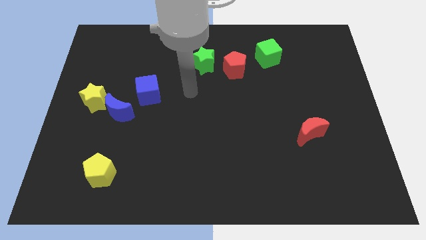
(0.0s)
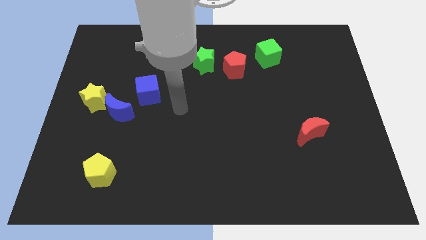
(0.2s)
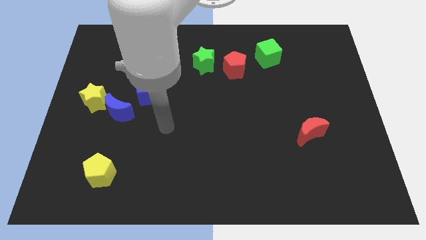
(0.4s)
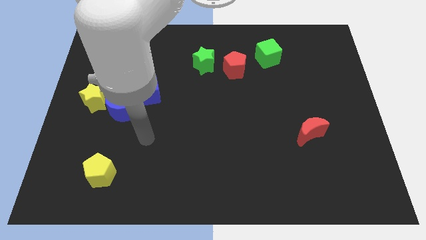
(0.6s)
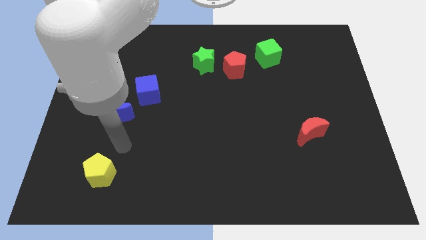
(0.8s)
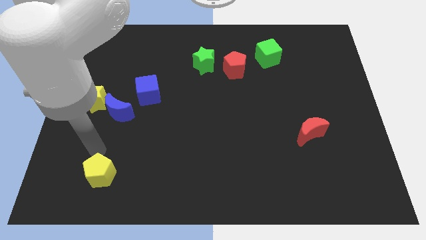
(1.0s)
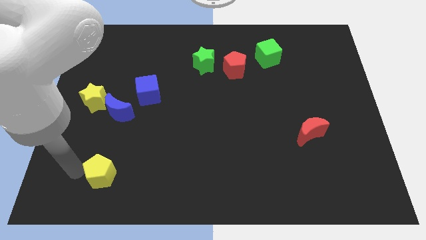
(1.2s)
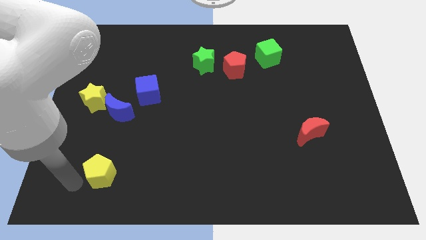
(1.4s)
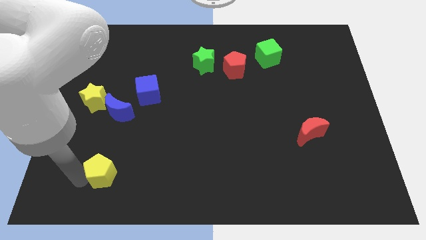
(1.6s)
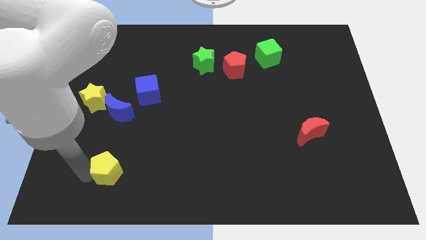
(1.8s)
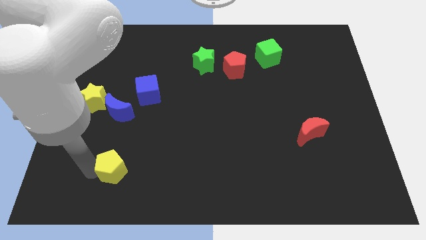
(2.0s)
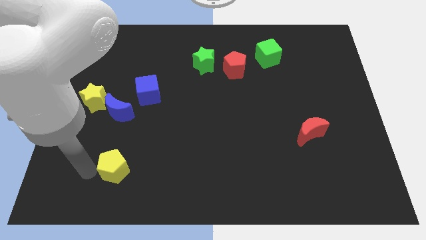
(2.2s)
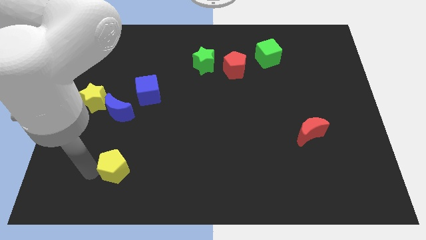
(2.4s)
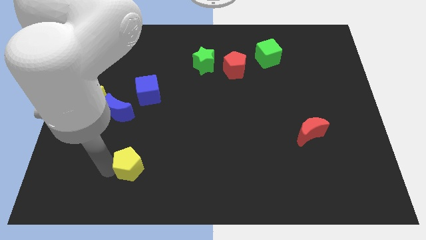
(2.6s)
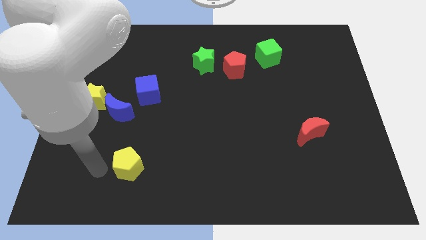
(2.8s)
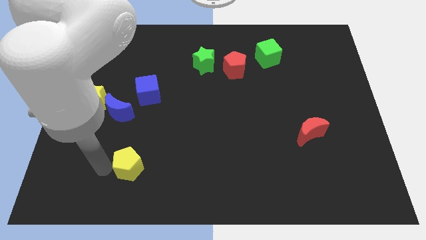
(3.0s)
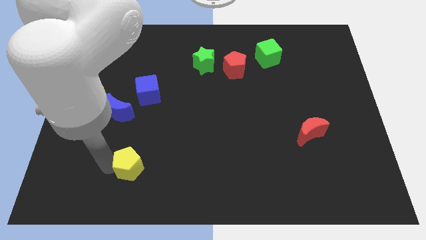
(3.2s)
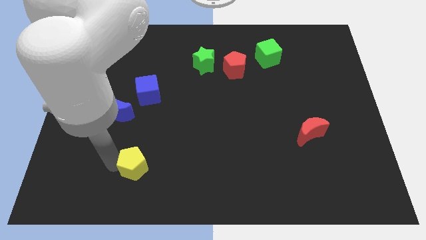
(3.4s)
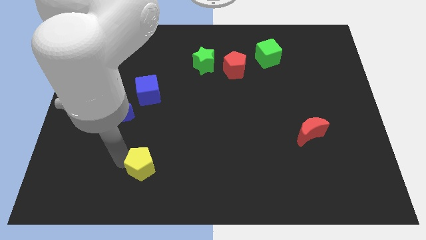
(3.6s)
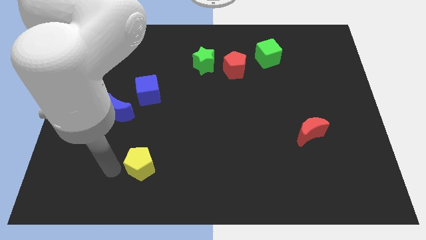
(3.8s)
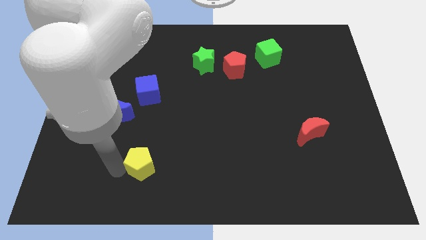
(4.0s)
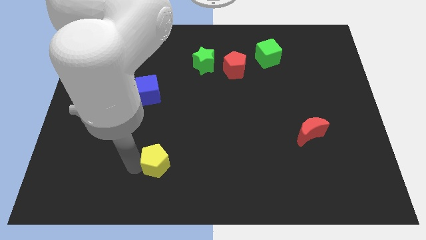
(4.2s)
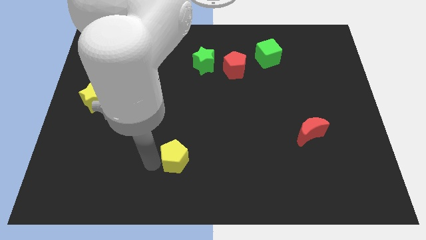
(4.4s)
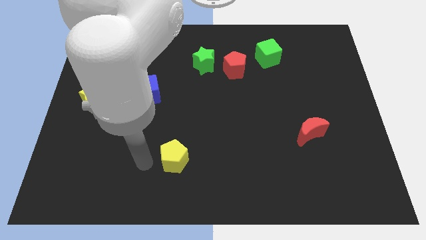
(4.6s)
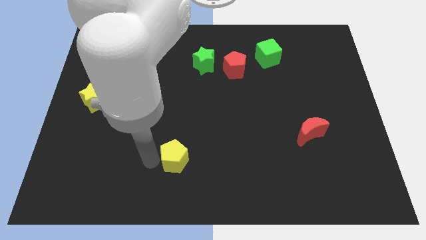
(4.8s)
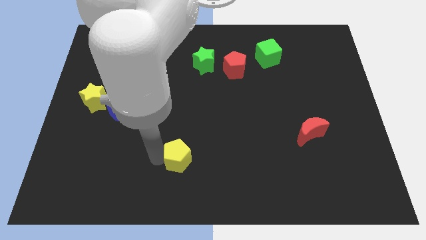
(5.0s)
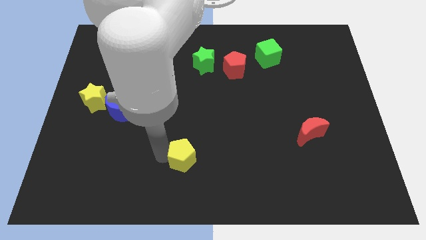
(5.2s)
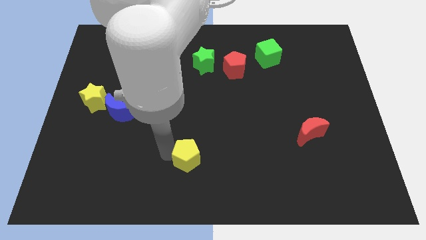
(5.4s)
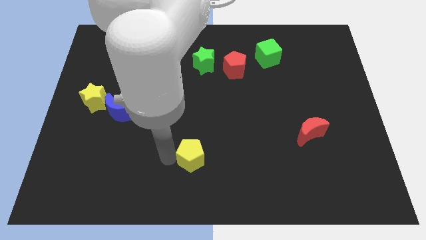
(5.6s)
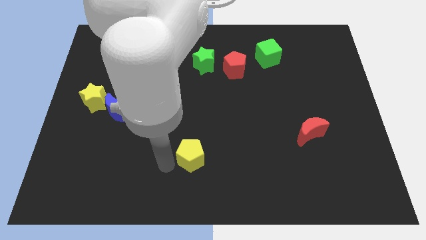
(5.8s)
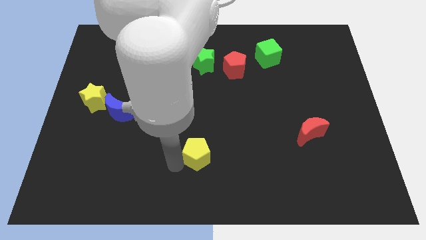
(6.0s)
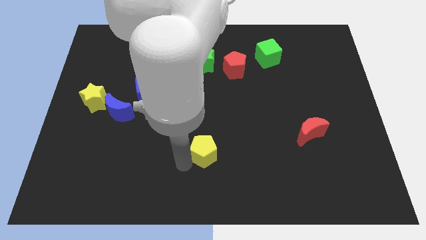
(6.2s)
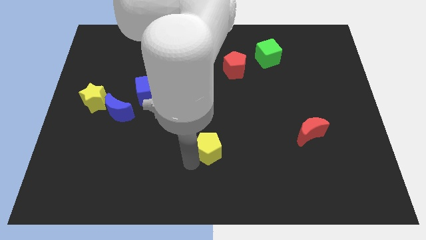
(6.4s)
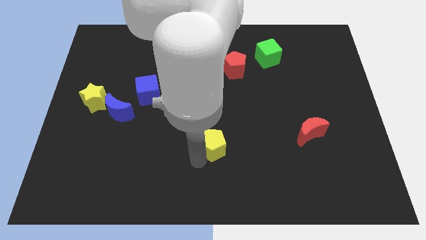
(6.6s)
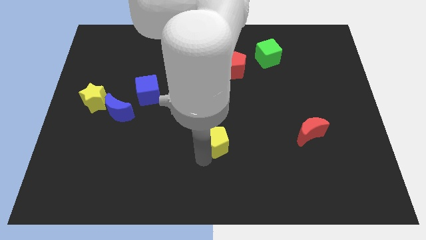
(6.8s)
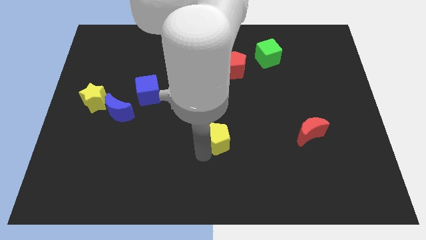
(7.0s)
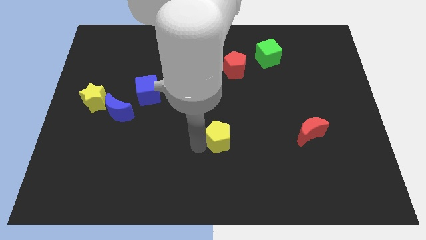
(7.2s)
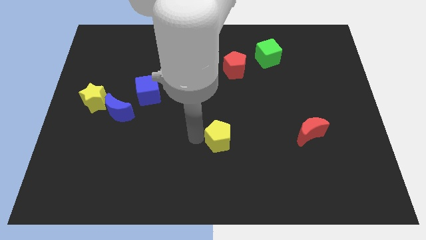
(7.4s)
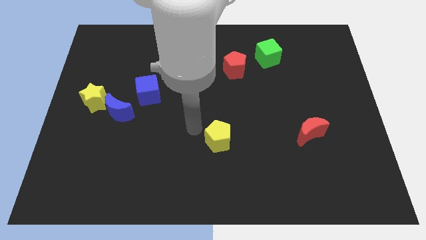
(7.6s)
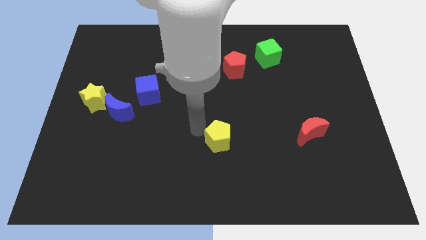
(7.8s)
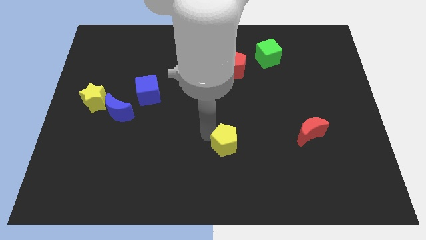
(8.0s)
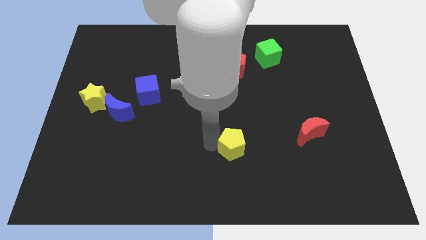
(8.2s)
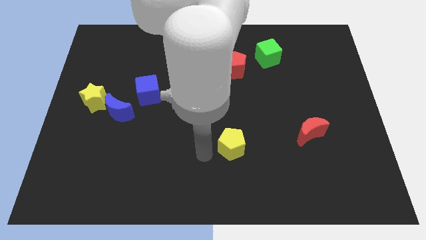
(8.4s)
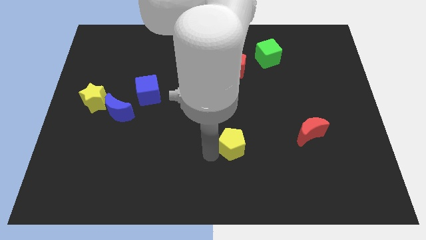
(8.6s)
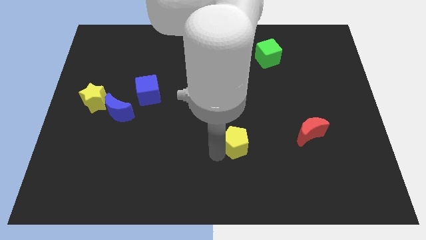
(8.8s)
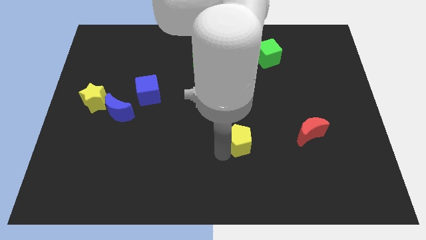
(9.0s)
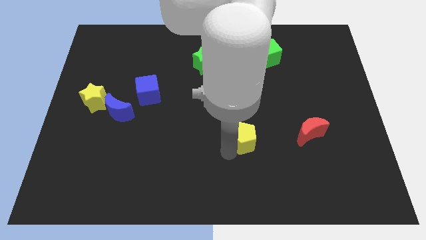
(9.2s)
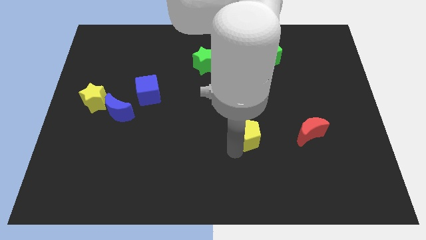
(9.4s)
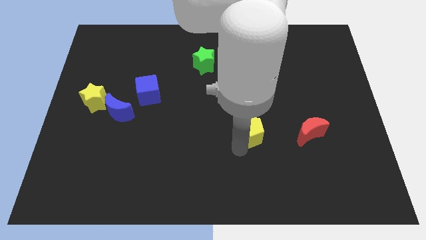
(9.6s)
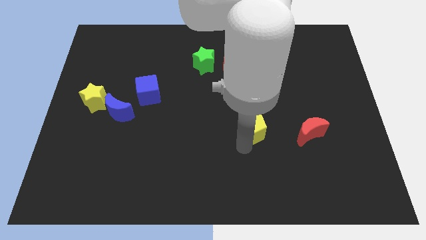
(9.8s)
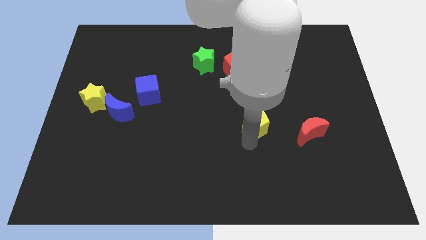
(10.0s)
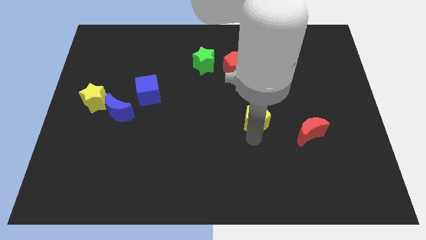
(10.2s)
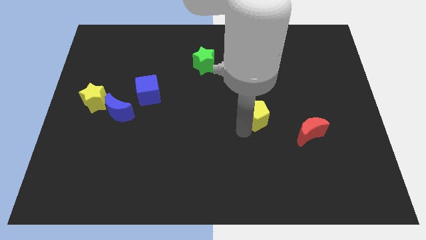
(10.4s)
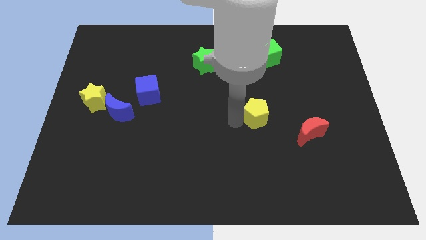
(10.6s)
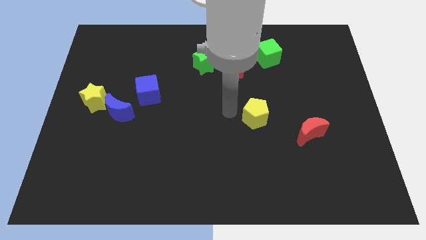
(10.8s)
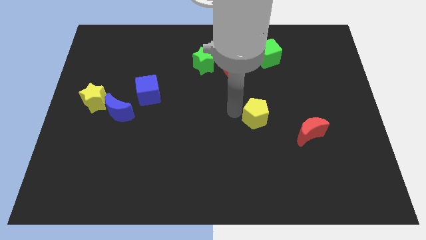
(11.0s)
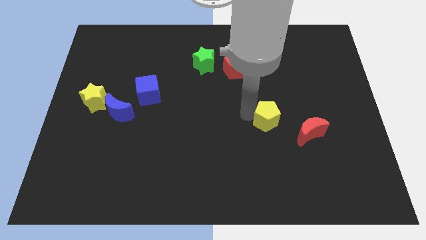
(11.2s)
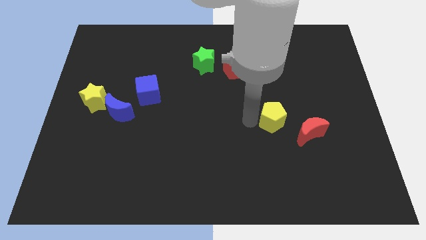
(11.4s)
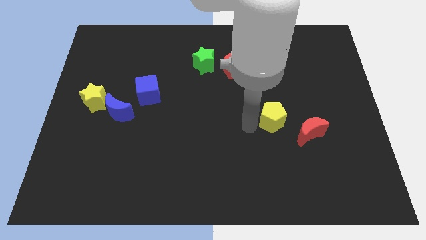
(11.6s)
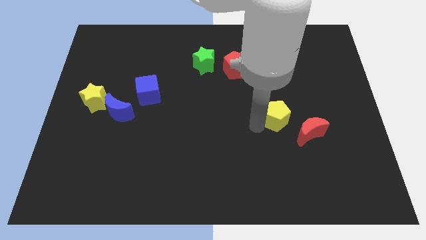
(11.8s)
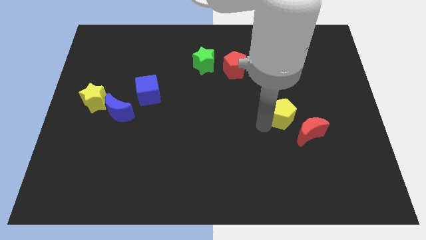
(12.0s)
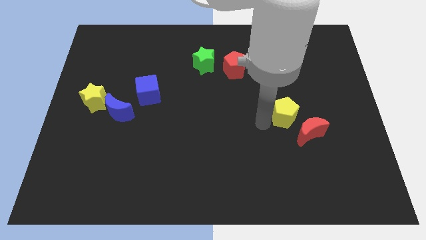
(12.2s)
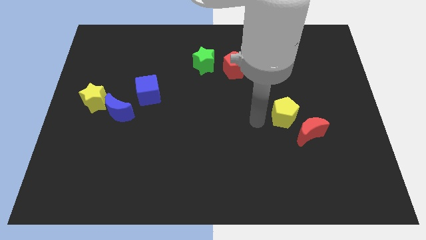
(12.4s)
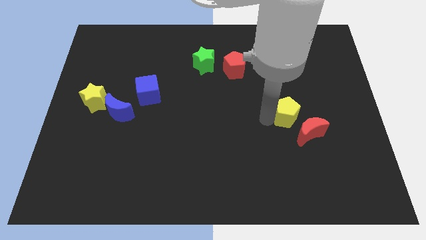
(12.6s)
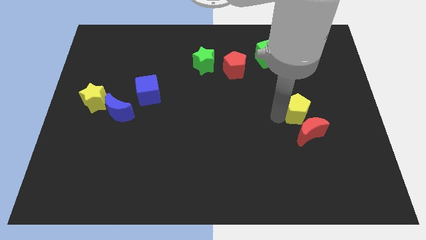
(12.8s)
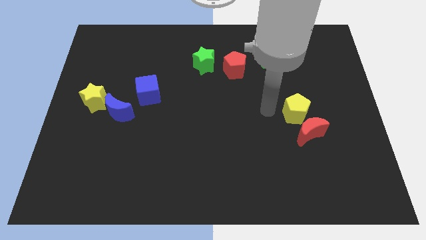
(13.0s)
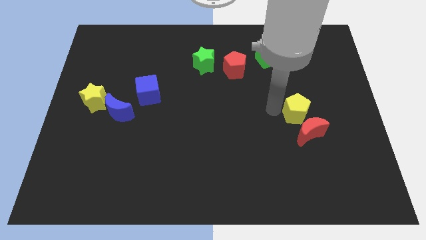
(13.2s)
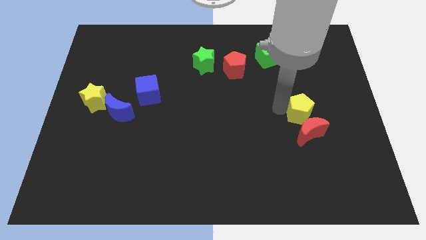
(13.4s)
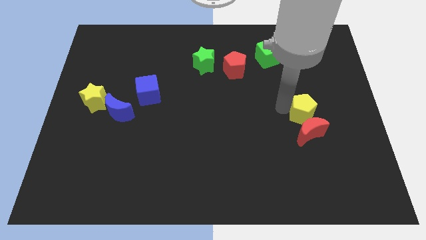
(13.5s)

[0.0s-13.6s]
move the yellow pentagon diagonally up and to the right of the red moon
